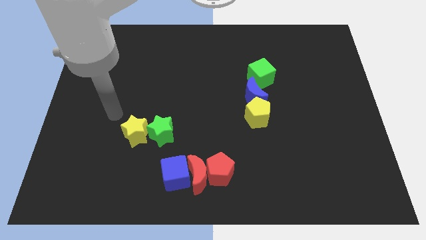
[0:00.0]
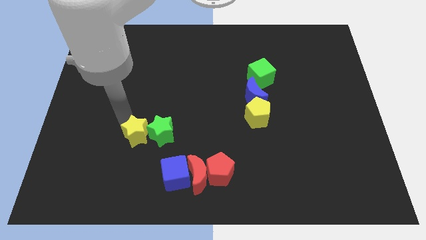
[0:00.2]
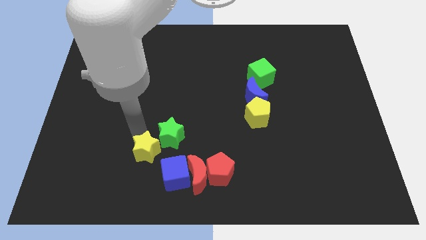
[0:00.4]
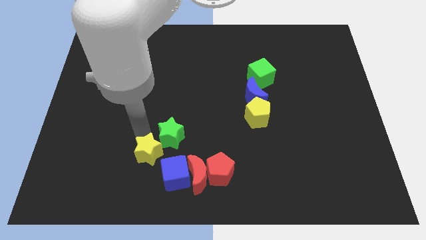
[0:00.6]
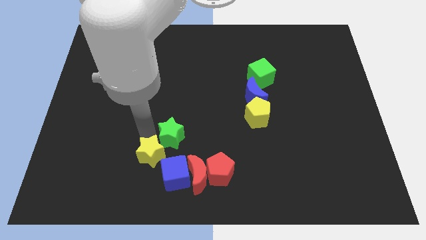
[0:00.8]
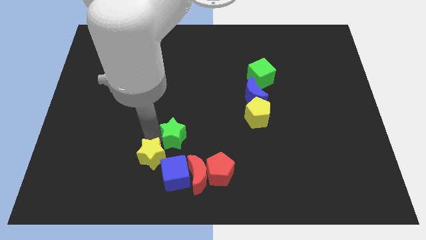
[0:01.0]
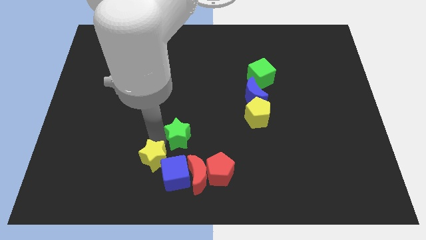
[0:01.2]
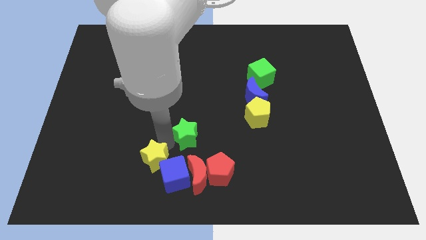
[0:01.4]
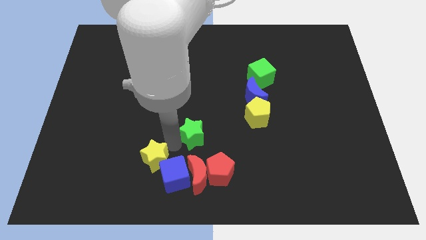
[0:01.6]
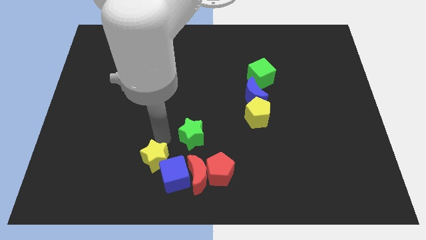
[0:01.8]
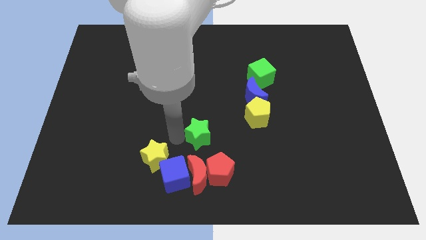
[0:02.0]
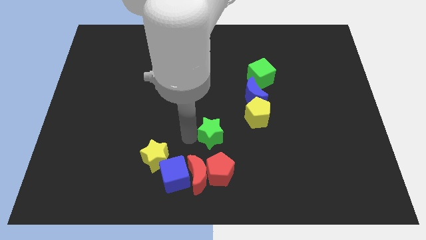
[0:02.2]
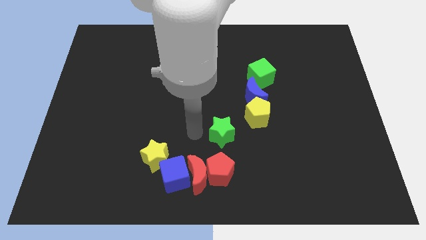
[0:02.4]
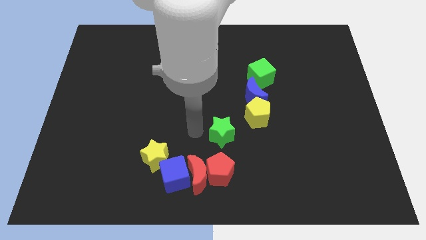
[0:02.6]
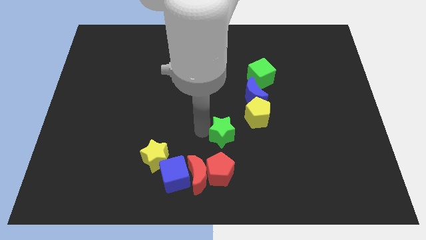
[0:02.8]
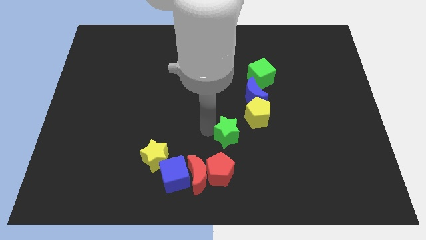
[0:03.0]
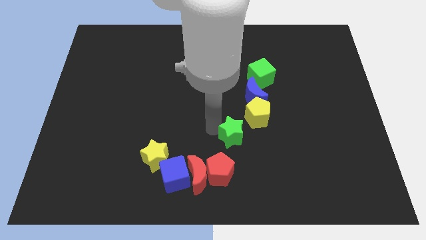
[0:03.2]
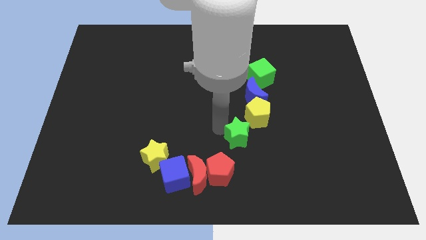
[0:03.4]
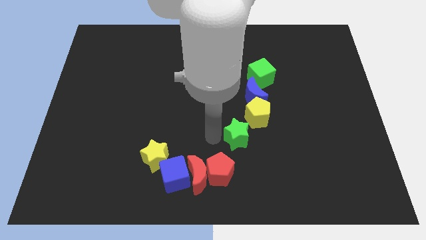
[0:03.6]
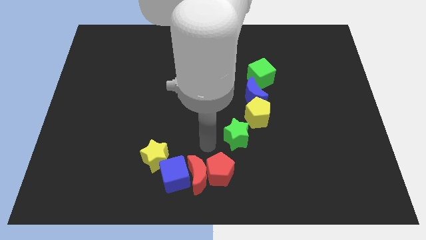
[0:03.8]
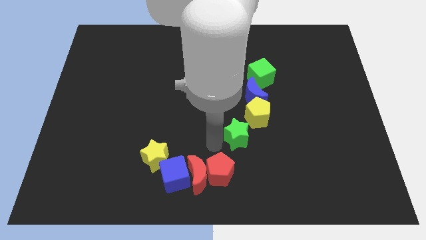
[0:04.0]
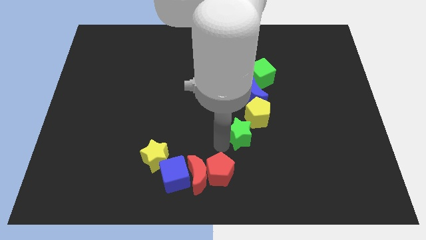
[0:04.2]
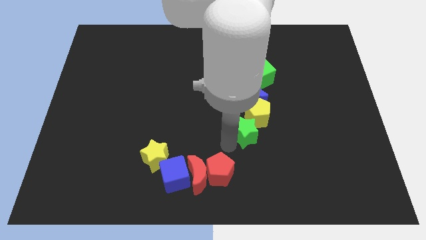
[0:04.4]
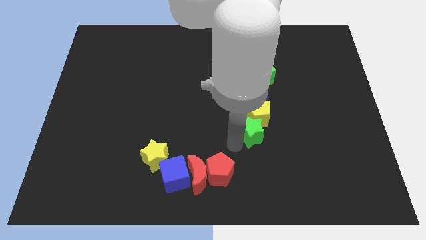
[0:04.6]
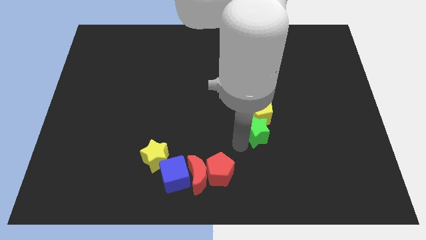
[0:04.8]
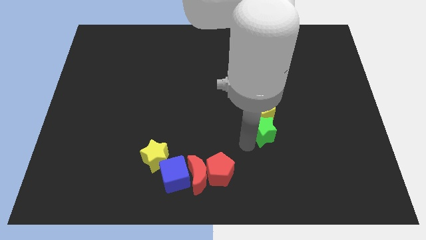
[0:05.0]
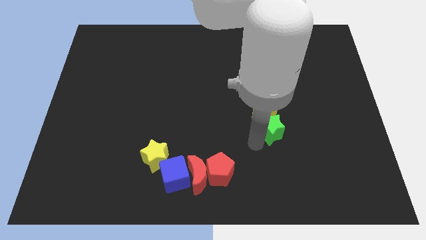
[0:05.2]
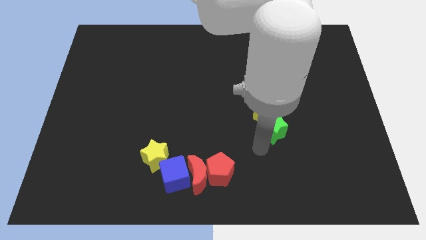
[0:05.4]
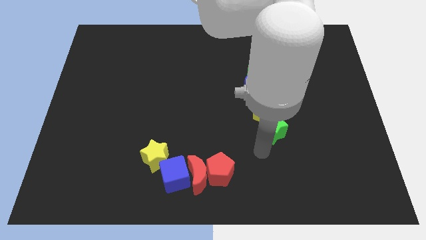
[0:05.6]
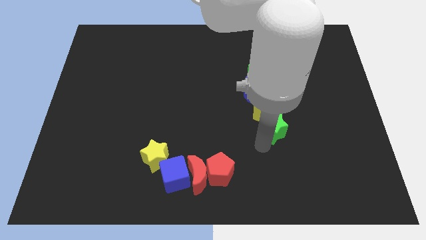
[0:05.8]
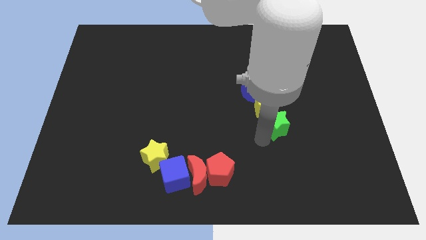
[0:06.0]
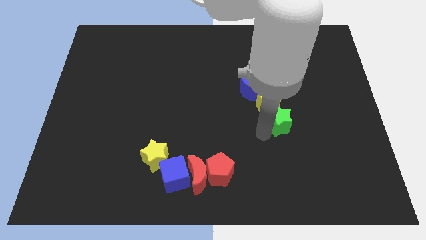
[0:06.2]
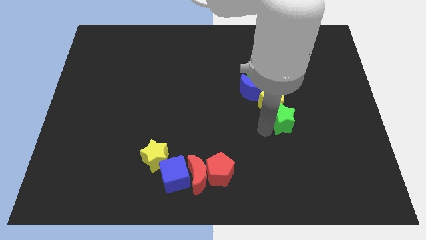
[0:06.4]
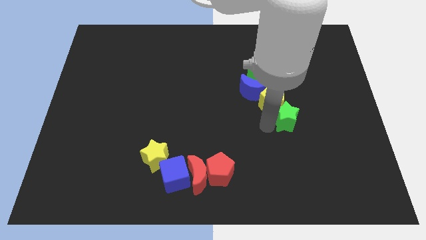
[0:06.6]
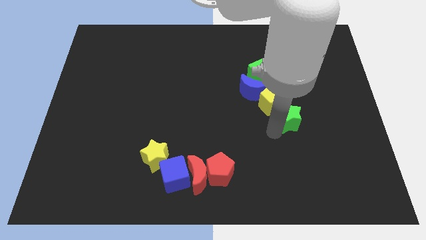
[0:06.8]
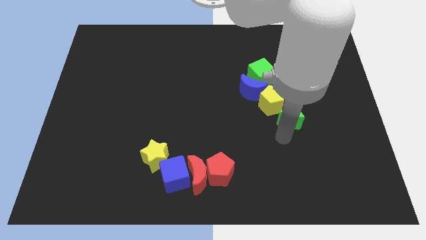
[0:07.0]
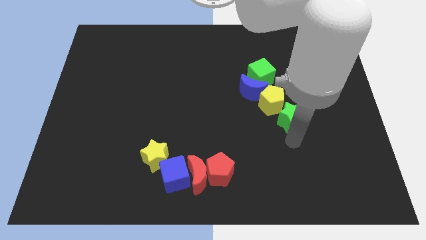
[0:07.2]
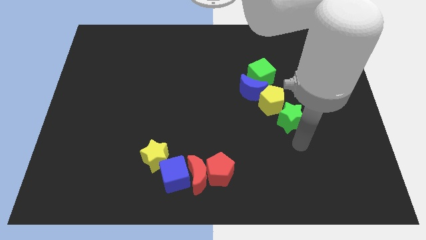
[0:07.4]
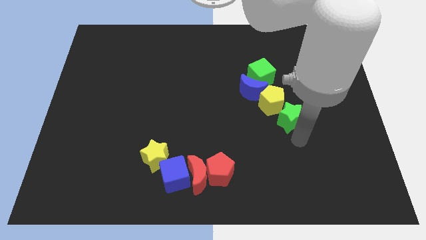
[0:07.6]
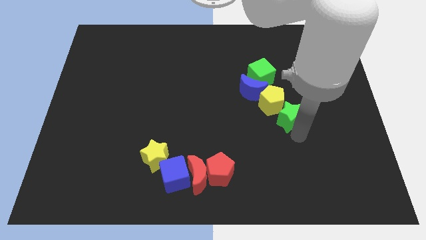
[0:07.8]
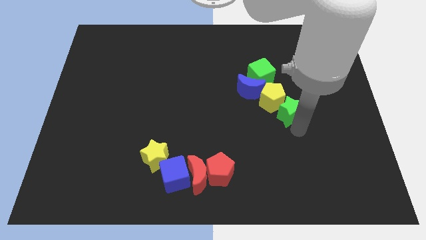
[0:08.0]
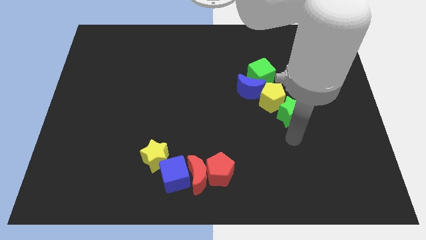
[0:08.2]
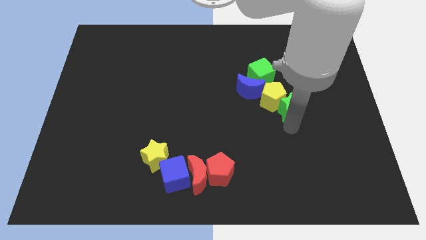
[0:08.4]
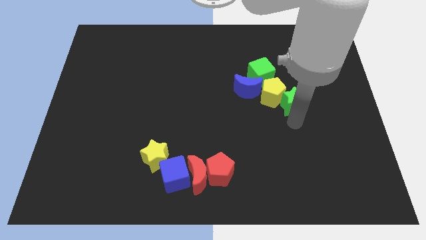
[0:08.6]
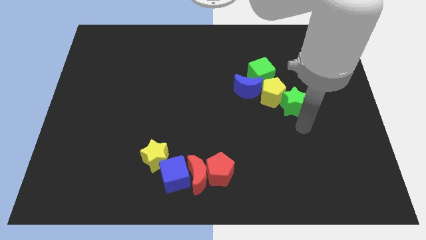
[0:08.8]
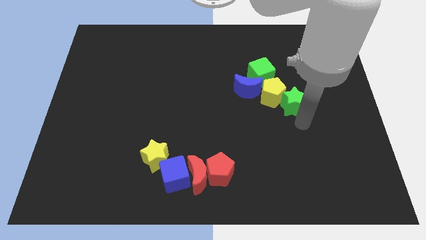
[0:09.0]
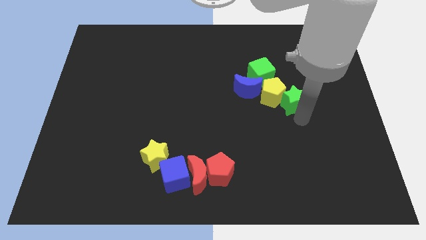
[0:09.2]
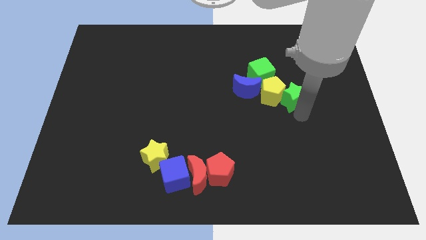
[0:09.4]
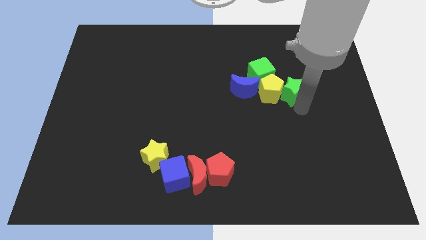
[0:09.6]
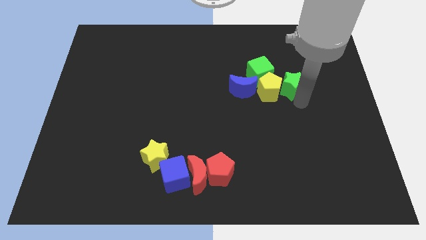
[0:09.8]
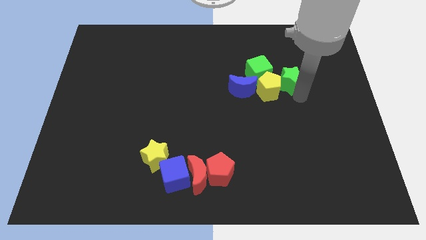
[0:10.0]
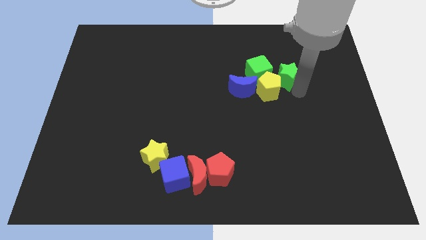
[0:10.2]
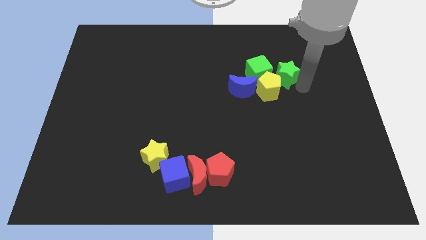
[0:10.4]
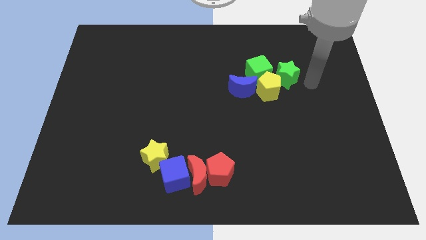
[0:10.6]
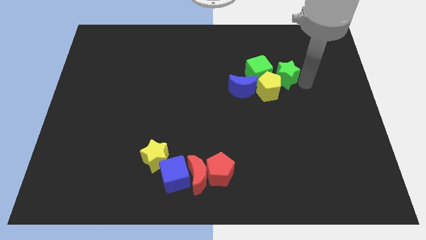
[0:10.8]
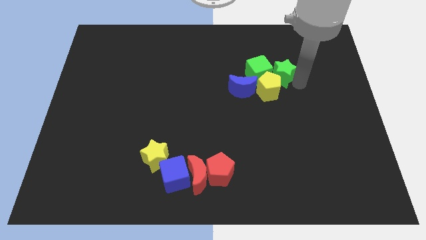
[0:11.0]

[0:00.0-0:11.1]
move the green star to the top right side of the blue moon

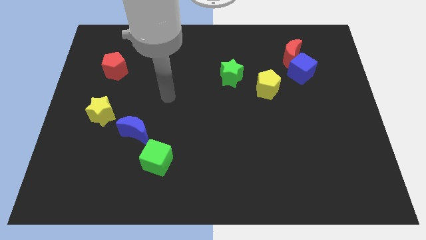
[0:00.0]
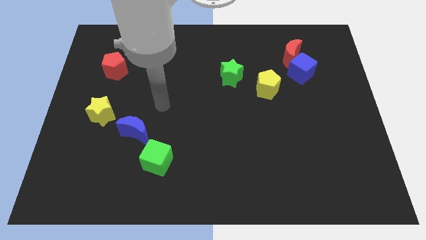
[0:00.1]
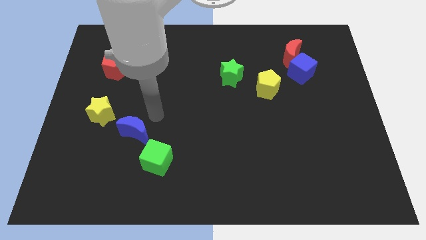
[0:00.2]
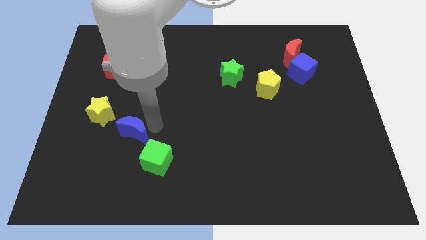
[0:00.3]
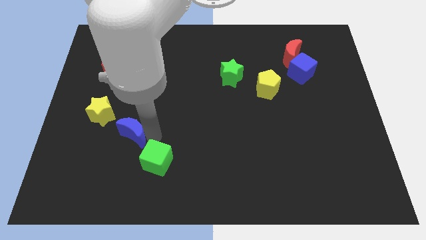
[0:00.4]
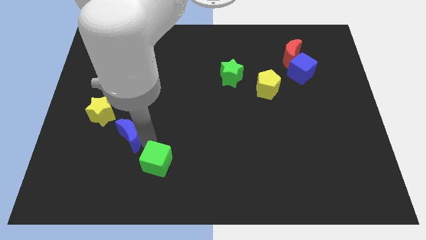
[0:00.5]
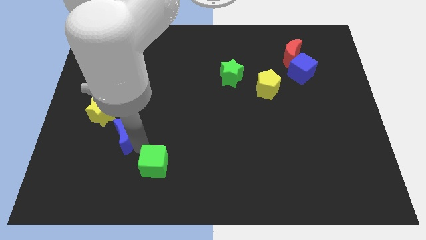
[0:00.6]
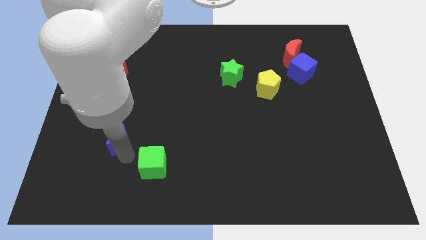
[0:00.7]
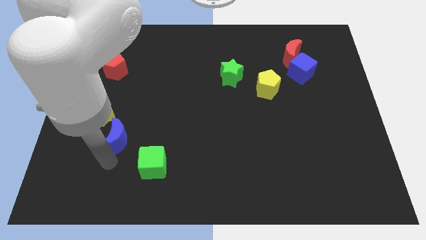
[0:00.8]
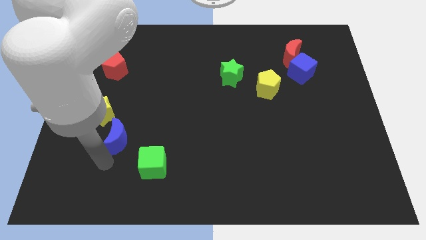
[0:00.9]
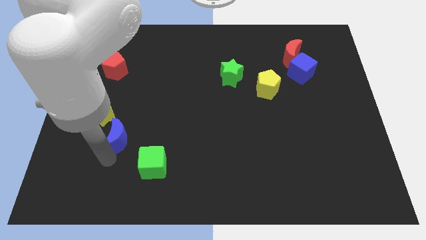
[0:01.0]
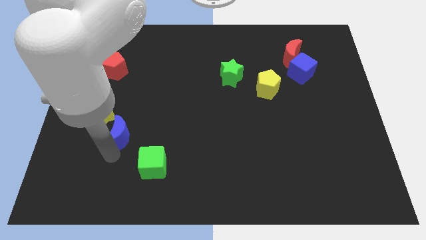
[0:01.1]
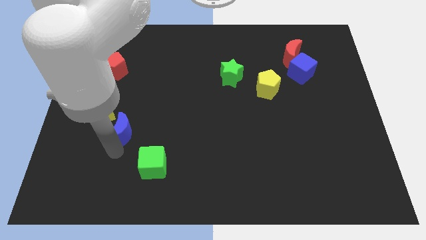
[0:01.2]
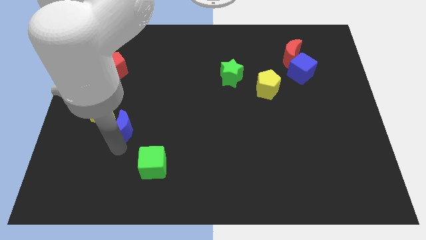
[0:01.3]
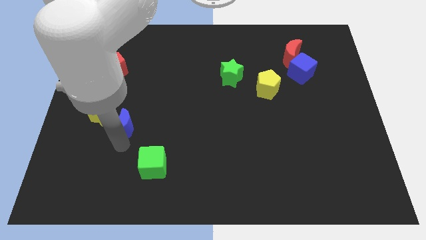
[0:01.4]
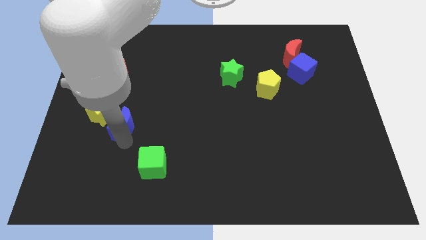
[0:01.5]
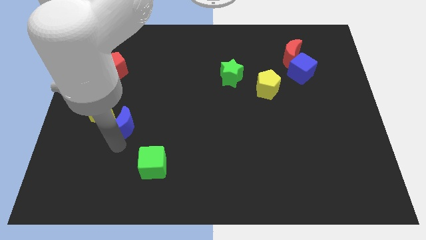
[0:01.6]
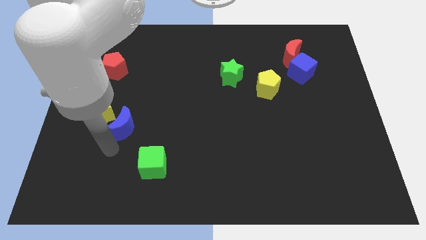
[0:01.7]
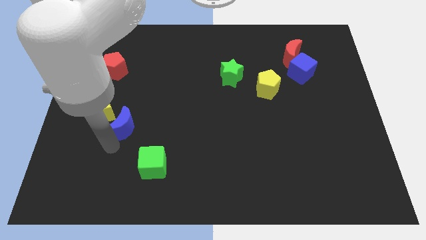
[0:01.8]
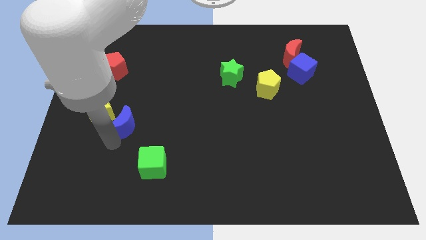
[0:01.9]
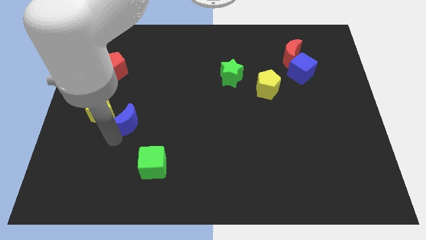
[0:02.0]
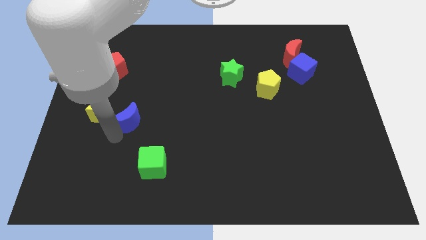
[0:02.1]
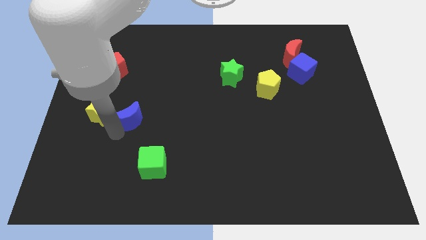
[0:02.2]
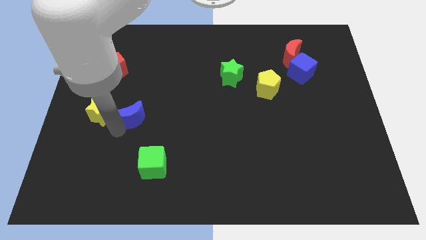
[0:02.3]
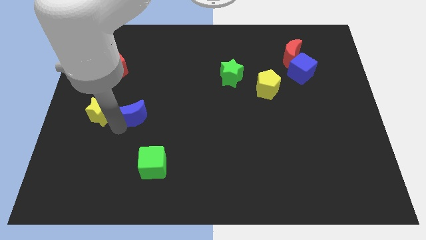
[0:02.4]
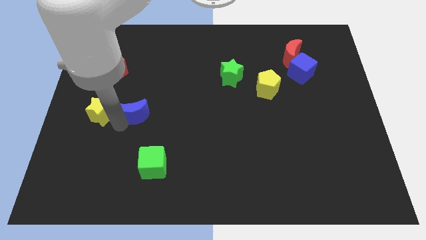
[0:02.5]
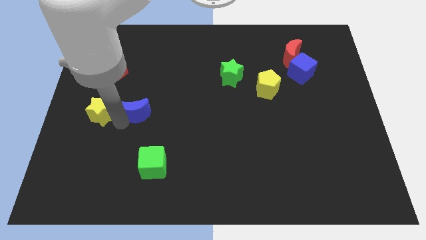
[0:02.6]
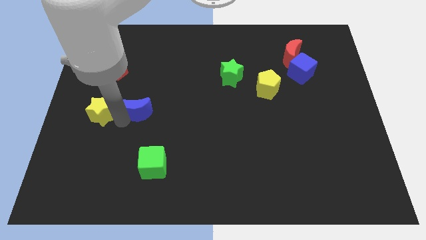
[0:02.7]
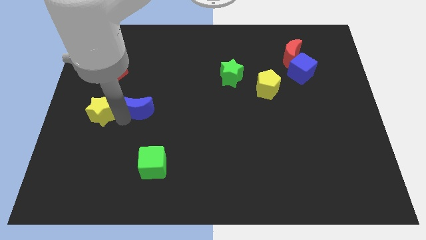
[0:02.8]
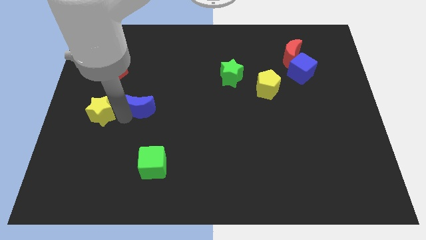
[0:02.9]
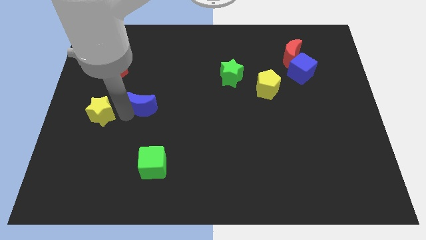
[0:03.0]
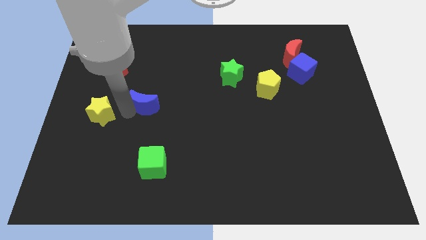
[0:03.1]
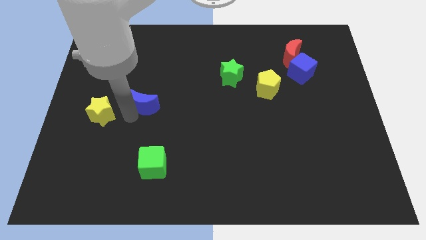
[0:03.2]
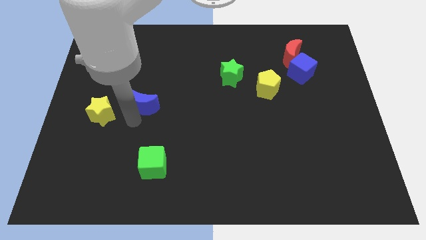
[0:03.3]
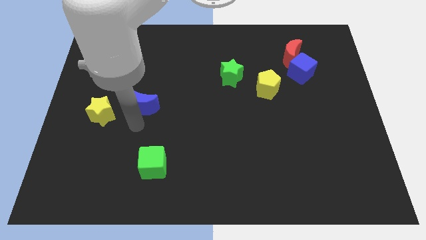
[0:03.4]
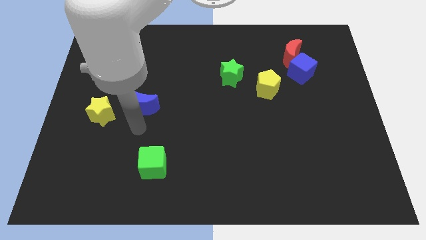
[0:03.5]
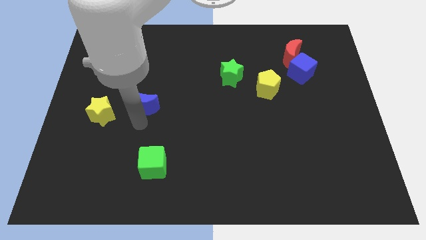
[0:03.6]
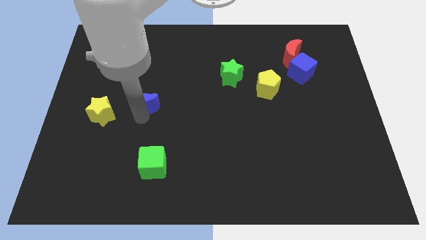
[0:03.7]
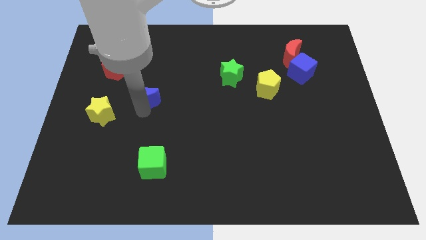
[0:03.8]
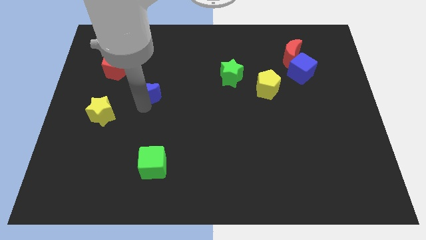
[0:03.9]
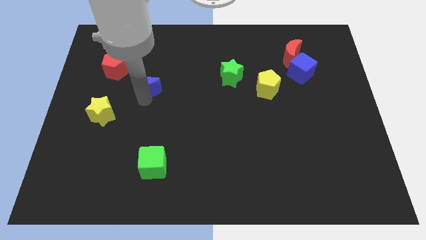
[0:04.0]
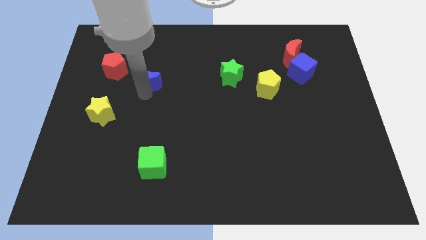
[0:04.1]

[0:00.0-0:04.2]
push the blue moon just right of the red pentagon
